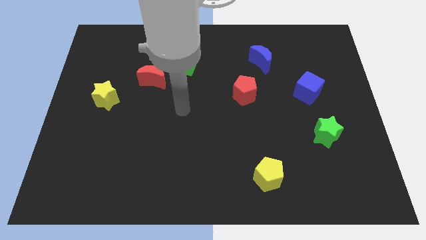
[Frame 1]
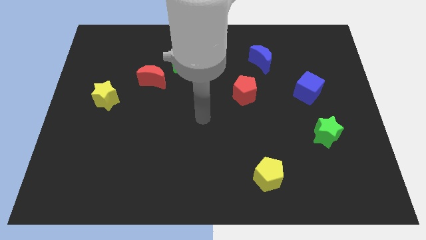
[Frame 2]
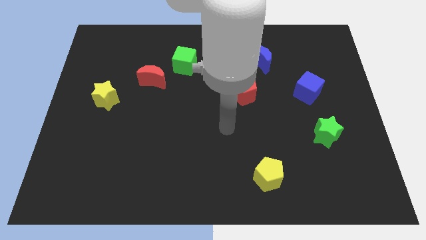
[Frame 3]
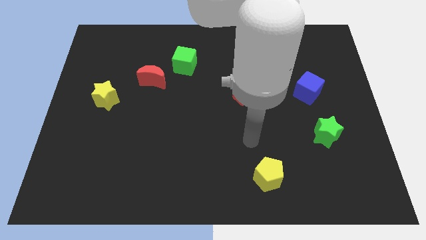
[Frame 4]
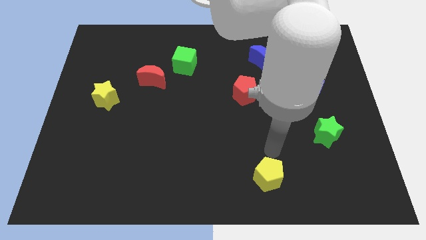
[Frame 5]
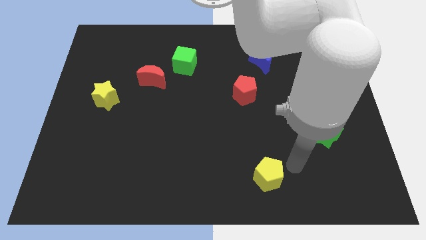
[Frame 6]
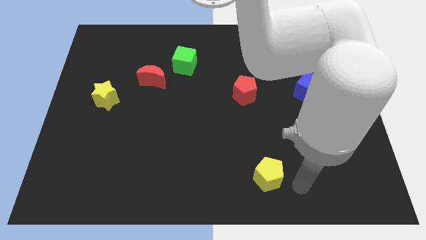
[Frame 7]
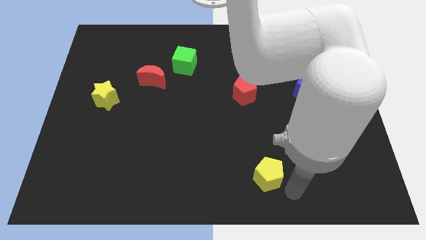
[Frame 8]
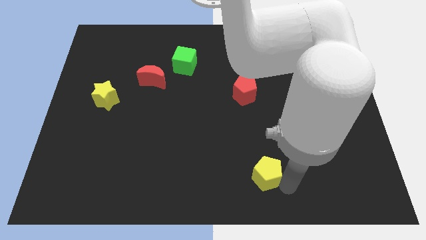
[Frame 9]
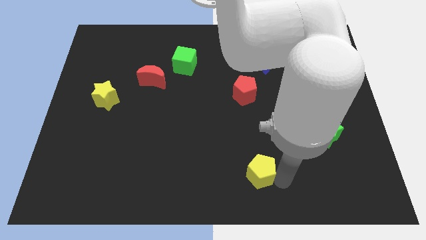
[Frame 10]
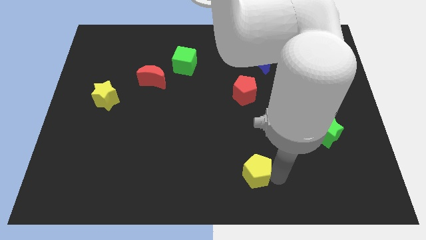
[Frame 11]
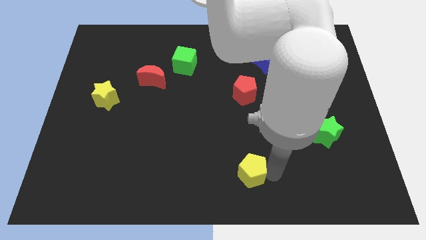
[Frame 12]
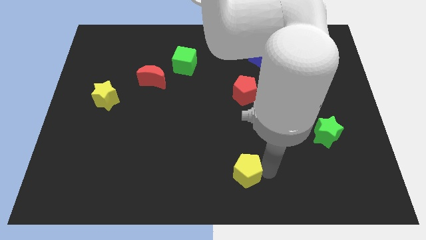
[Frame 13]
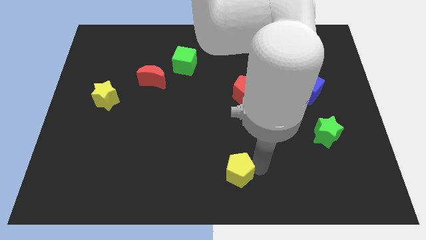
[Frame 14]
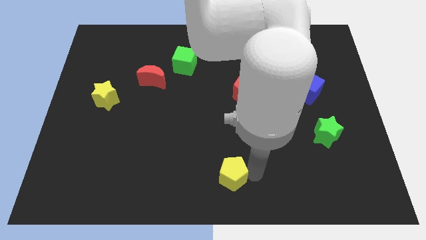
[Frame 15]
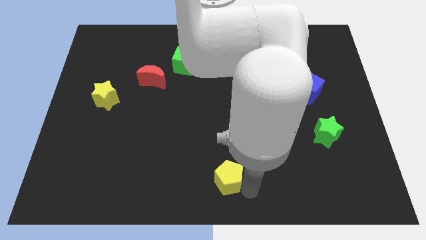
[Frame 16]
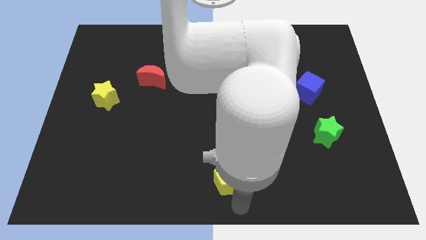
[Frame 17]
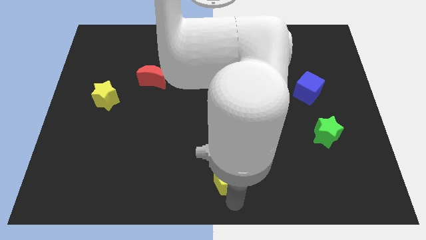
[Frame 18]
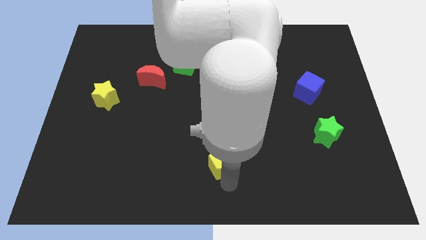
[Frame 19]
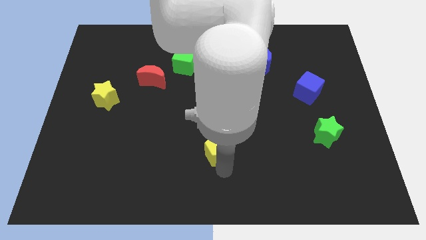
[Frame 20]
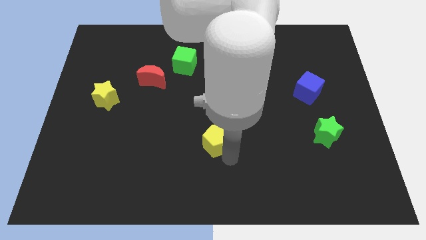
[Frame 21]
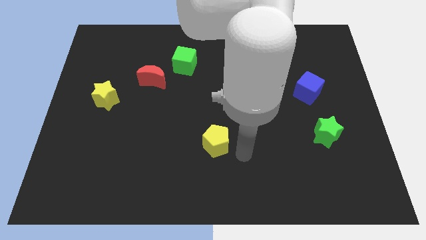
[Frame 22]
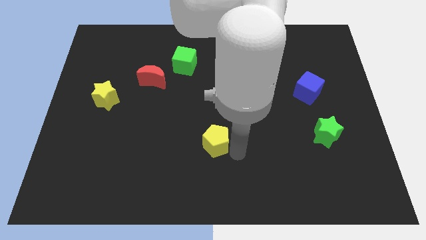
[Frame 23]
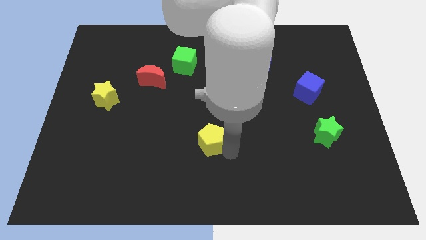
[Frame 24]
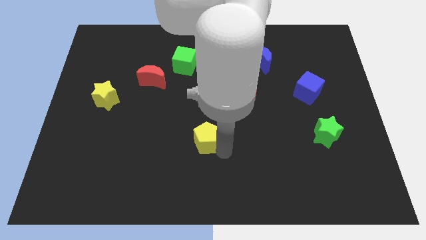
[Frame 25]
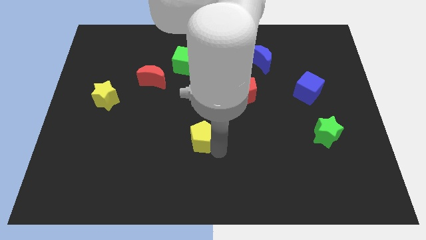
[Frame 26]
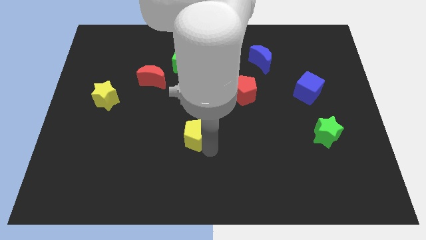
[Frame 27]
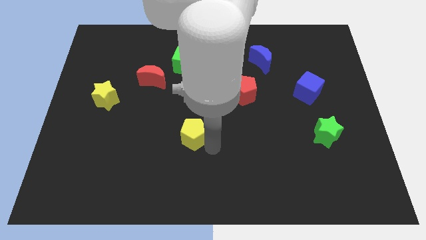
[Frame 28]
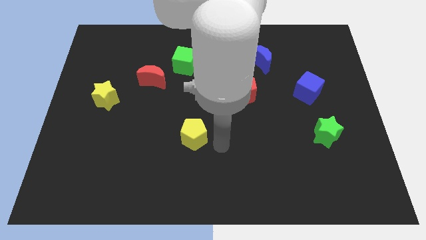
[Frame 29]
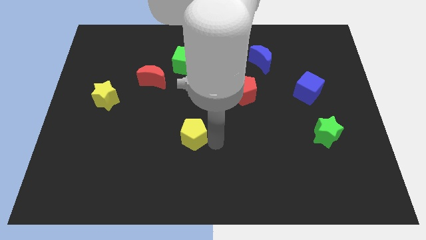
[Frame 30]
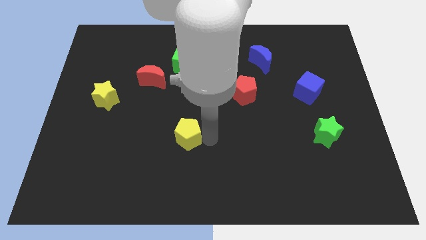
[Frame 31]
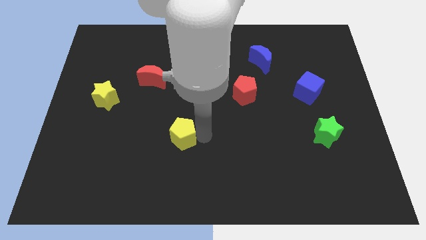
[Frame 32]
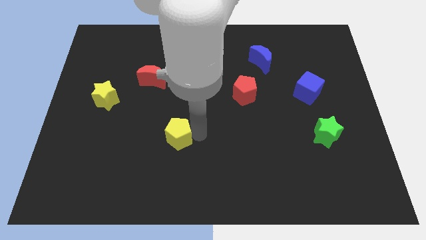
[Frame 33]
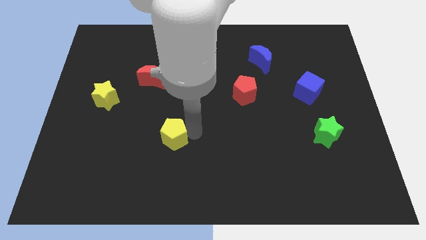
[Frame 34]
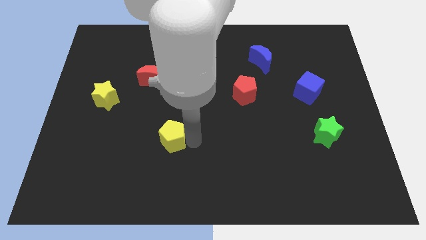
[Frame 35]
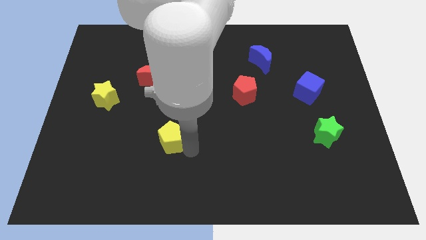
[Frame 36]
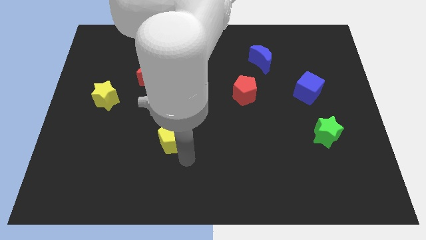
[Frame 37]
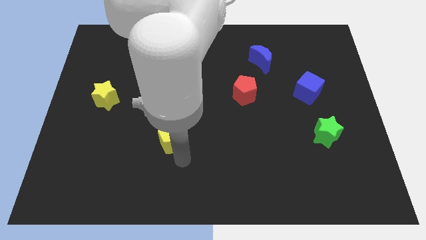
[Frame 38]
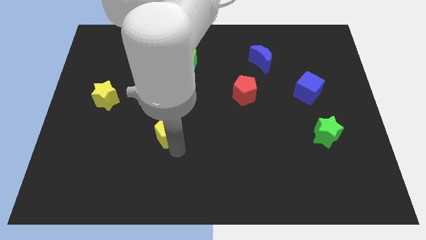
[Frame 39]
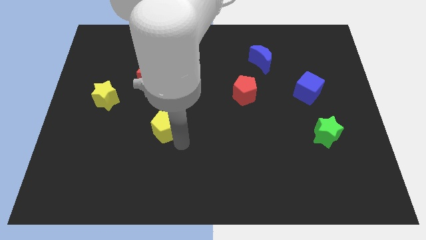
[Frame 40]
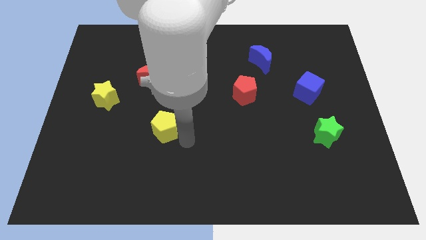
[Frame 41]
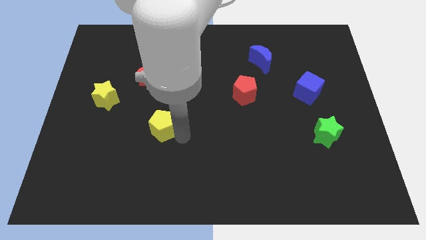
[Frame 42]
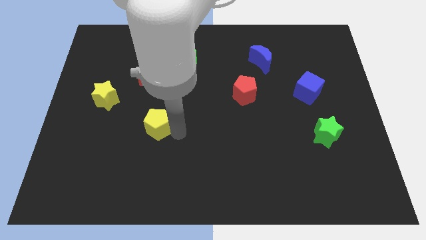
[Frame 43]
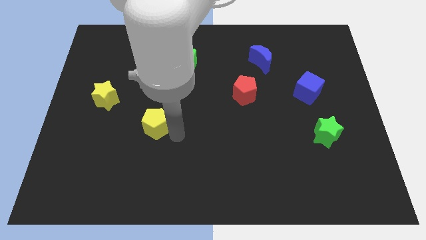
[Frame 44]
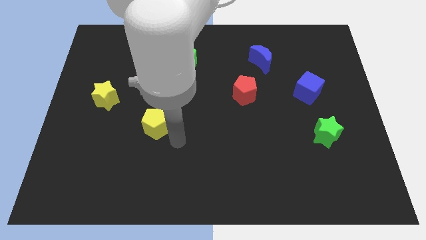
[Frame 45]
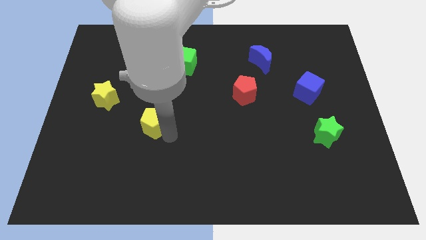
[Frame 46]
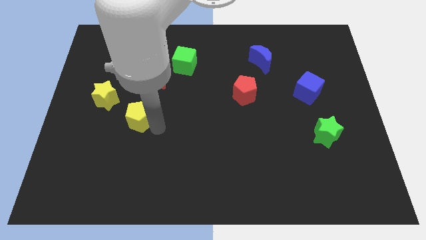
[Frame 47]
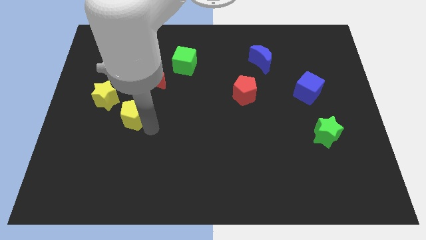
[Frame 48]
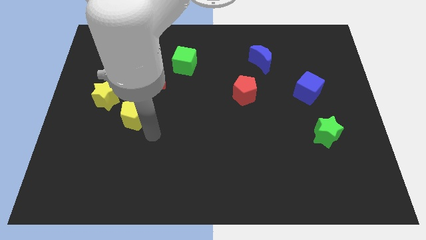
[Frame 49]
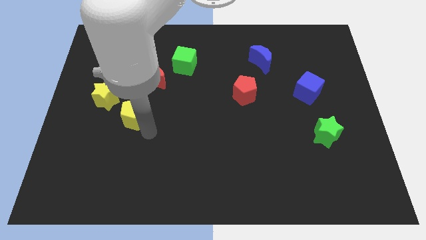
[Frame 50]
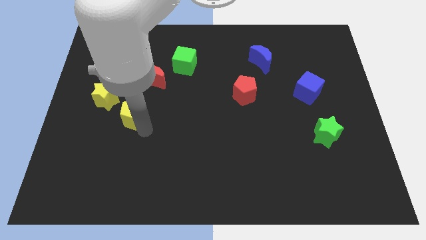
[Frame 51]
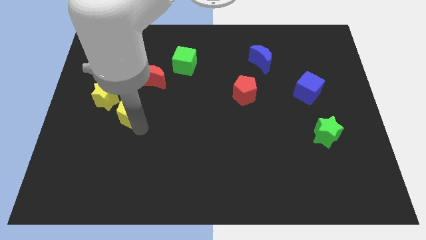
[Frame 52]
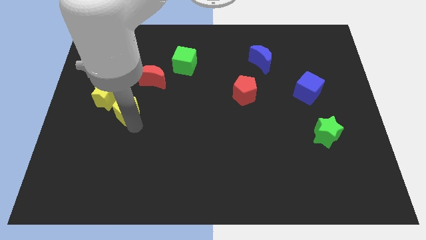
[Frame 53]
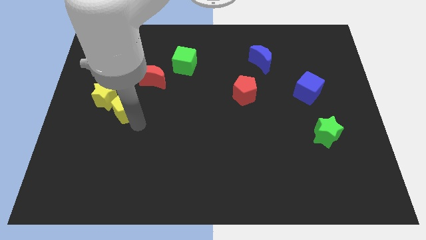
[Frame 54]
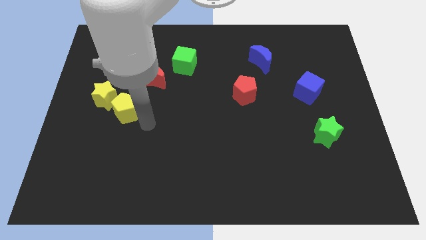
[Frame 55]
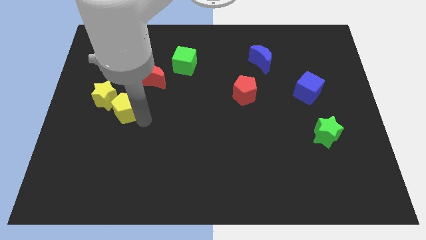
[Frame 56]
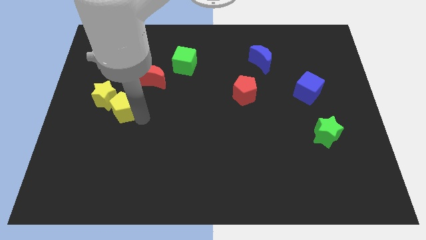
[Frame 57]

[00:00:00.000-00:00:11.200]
push the yellow pentagon towards the yellow star

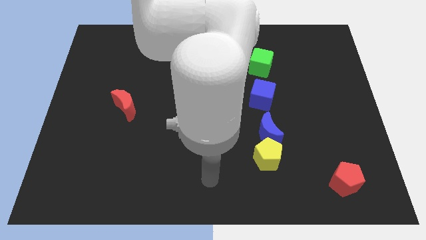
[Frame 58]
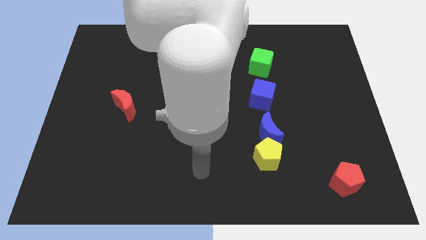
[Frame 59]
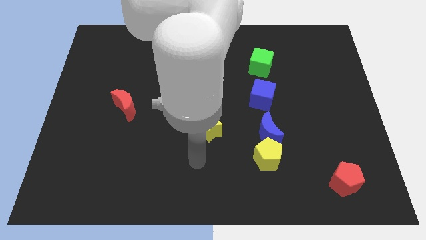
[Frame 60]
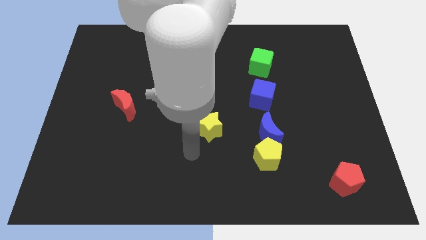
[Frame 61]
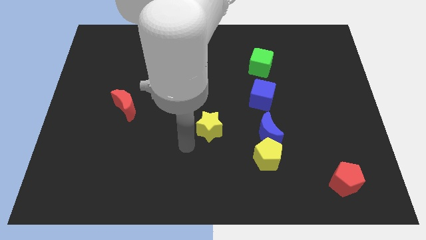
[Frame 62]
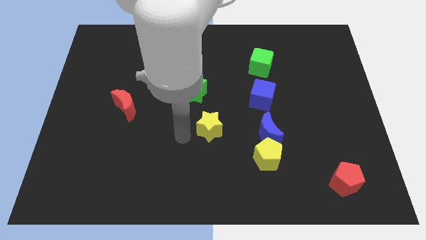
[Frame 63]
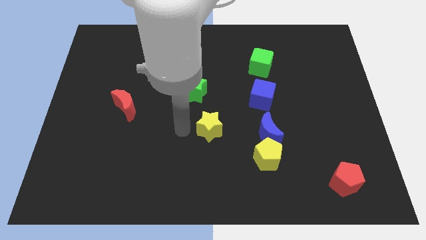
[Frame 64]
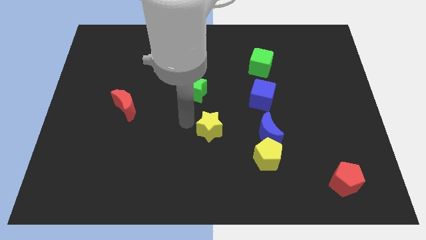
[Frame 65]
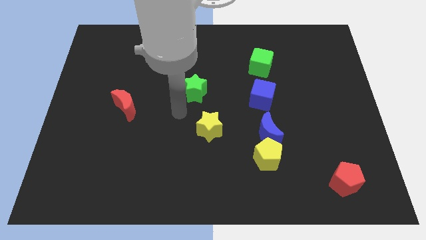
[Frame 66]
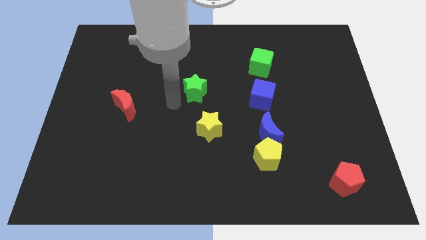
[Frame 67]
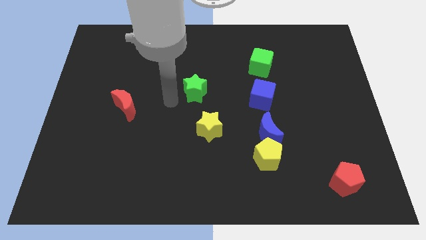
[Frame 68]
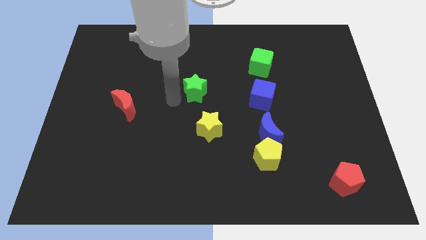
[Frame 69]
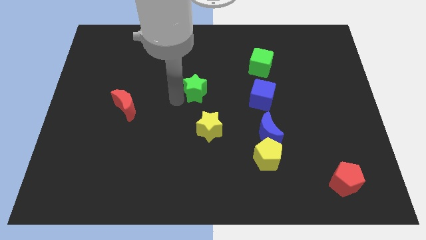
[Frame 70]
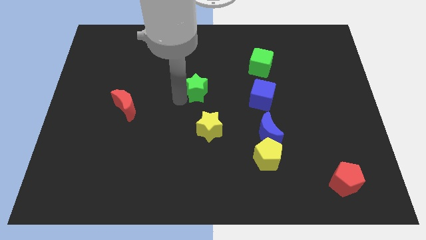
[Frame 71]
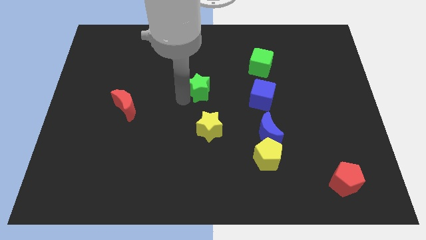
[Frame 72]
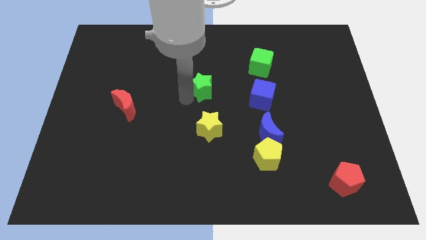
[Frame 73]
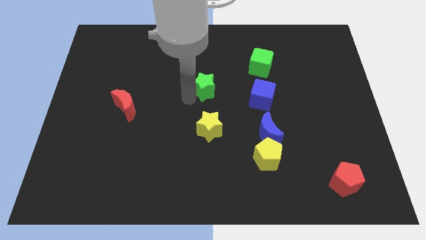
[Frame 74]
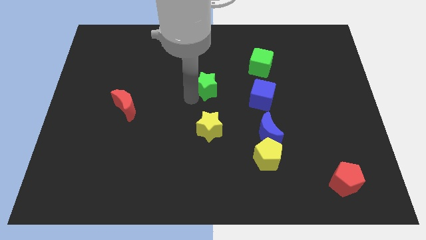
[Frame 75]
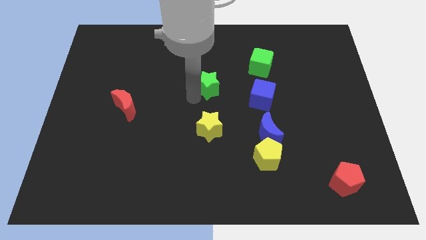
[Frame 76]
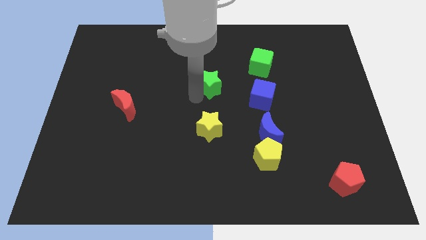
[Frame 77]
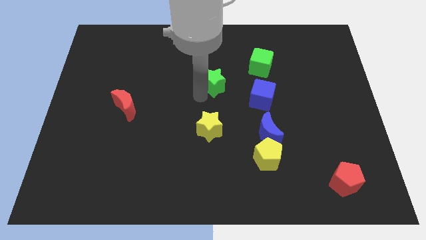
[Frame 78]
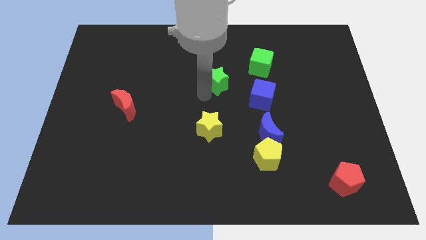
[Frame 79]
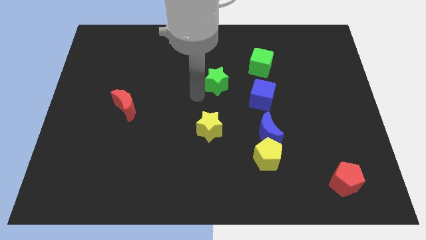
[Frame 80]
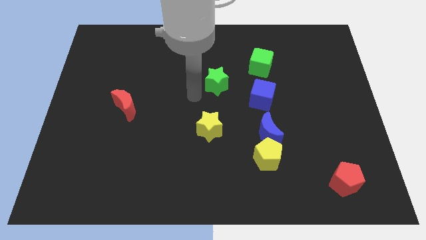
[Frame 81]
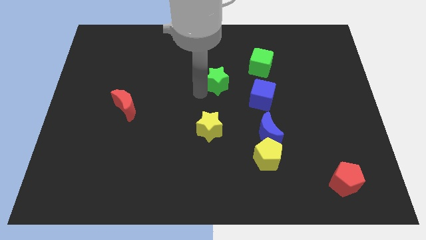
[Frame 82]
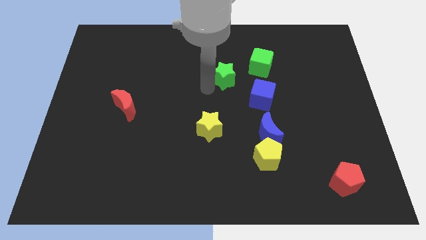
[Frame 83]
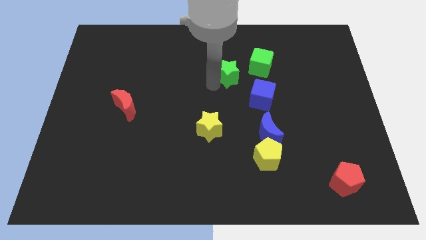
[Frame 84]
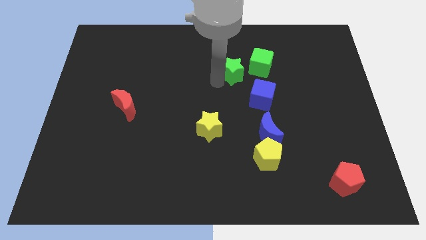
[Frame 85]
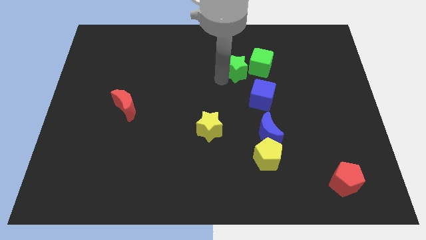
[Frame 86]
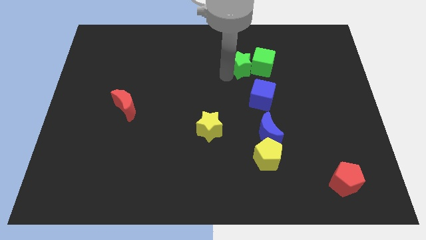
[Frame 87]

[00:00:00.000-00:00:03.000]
push the green star next to the green cube
